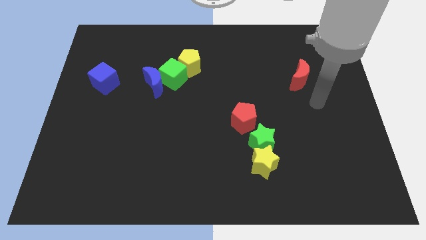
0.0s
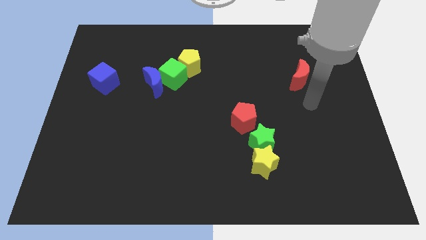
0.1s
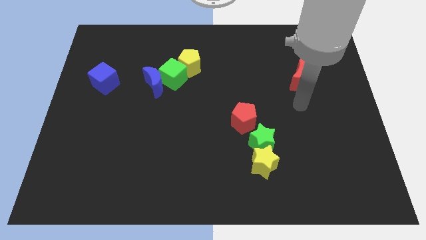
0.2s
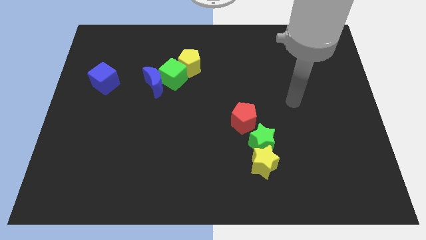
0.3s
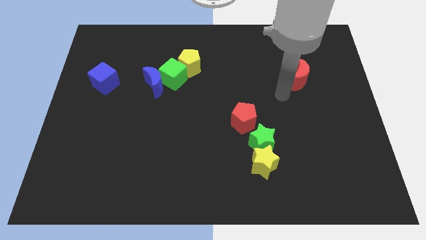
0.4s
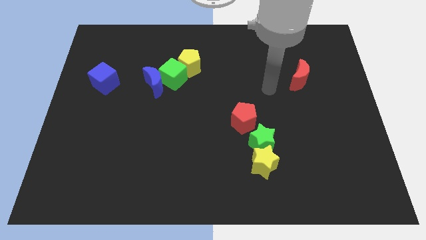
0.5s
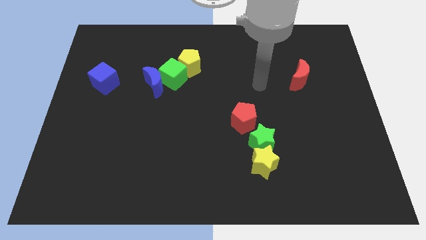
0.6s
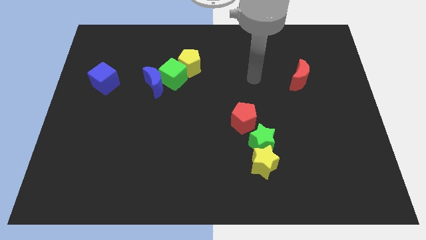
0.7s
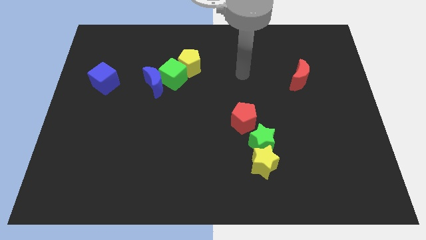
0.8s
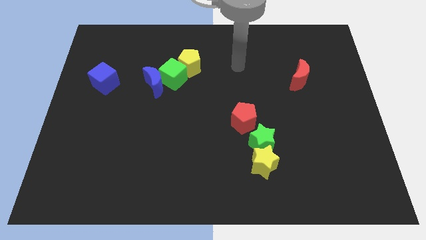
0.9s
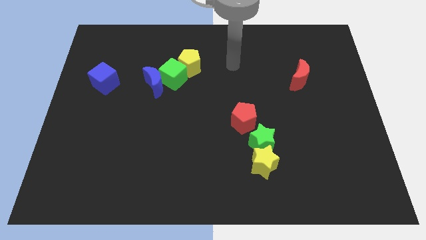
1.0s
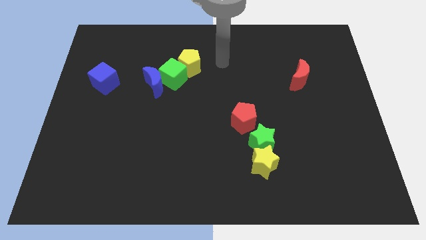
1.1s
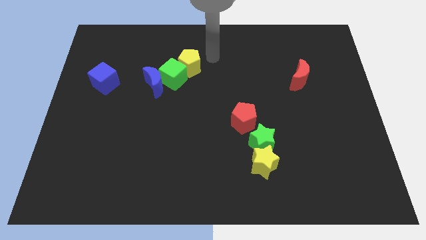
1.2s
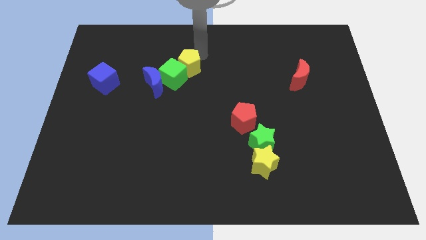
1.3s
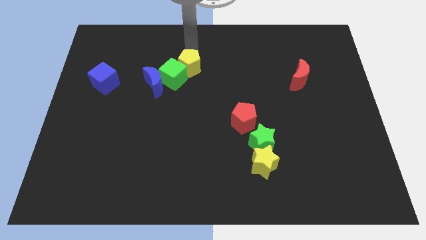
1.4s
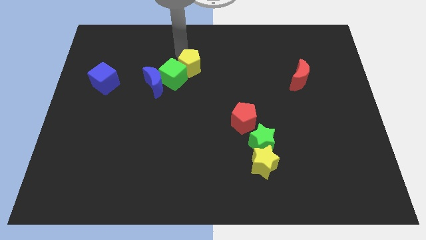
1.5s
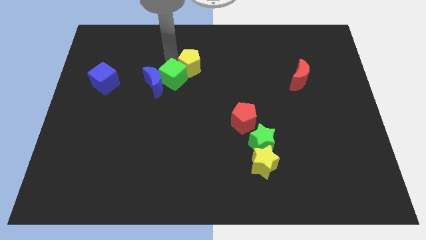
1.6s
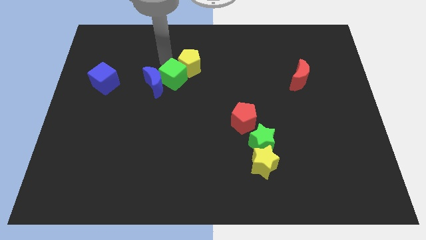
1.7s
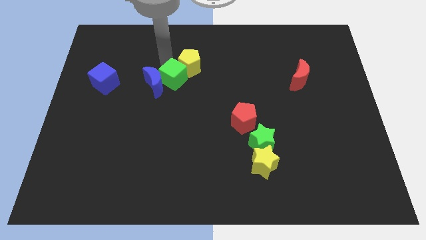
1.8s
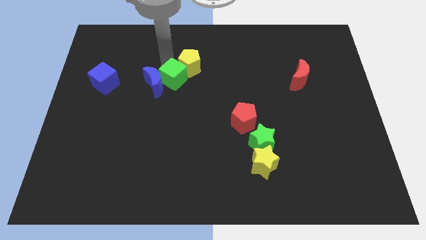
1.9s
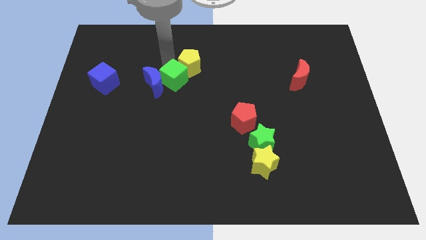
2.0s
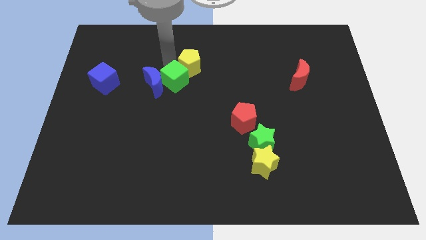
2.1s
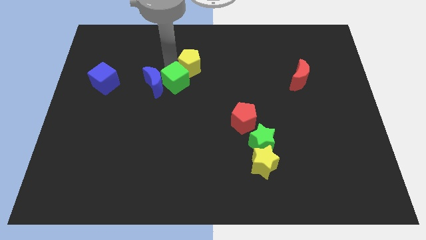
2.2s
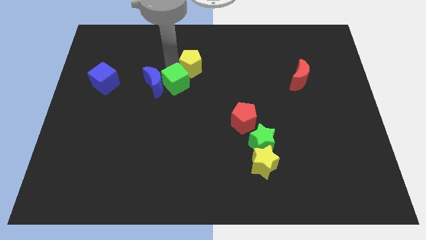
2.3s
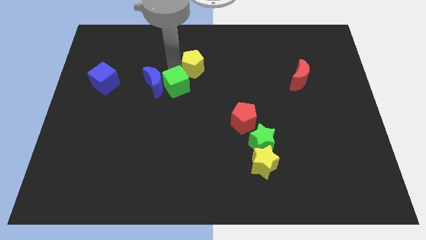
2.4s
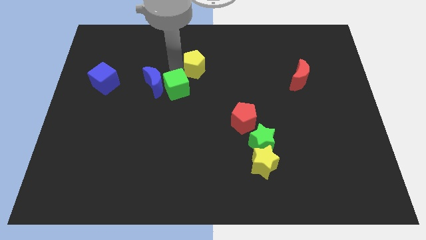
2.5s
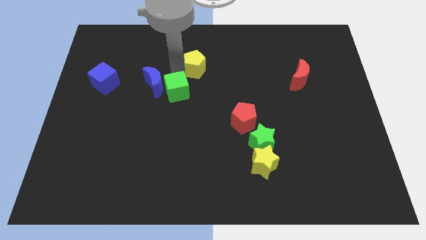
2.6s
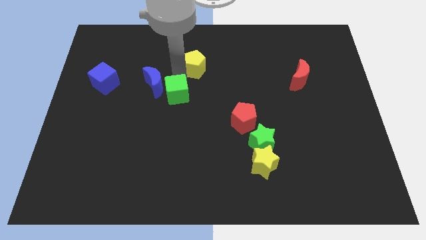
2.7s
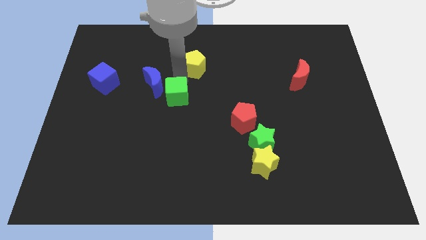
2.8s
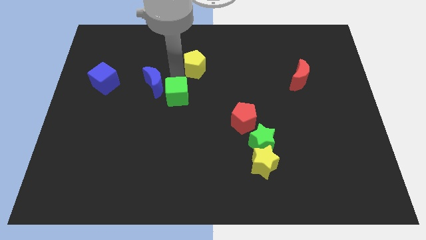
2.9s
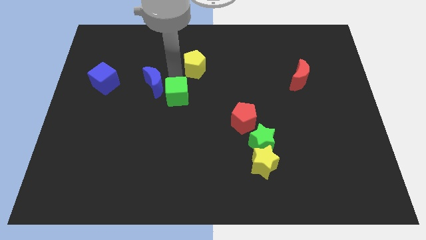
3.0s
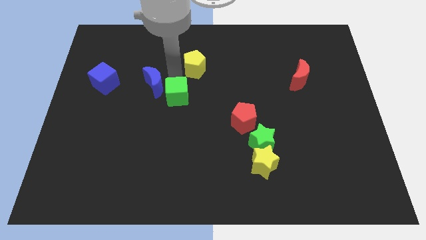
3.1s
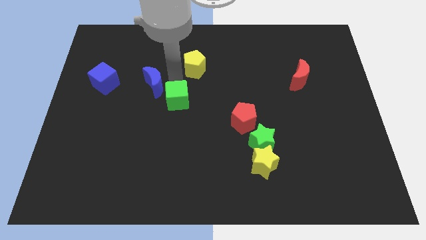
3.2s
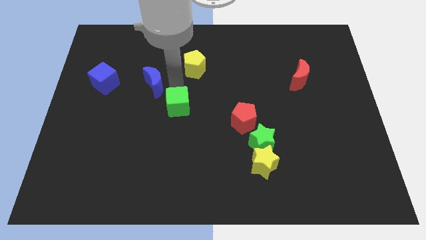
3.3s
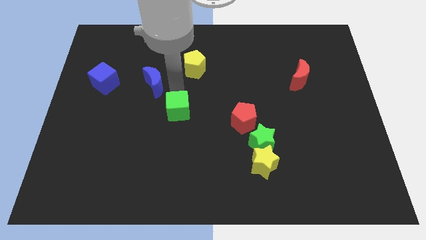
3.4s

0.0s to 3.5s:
pull the green cube apart from the blue moon and yellow pentagon

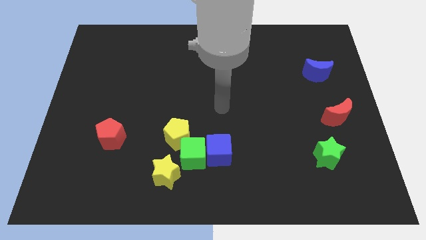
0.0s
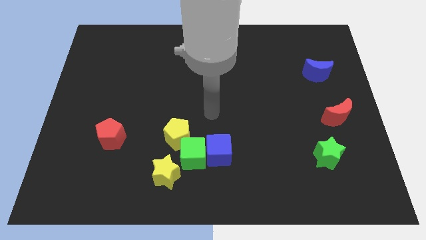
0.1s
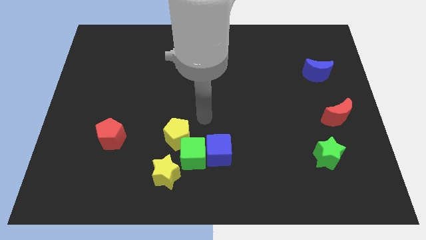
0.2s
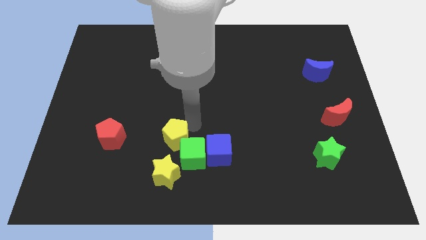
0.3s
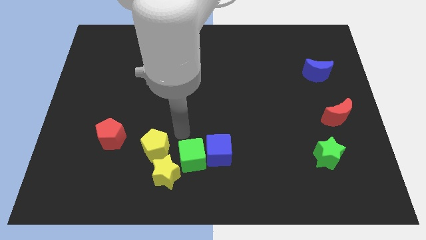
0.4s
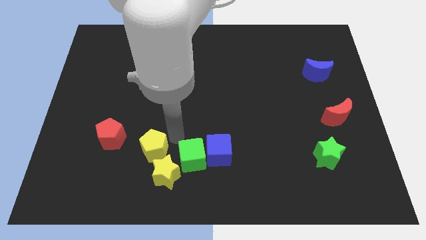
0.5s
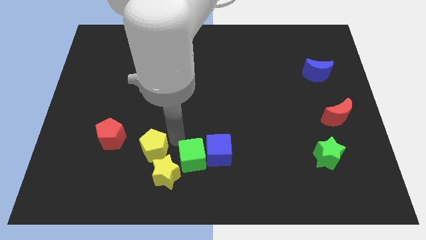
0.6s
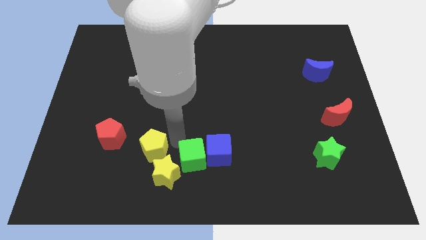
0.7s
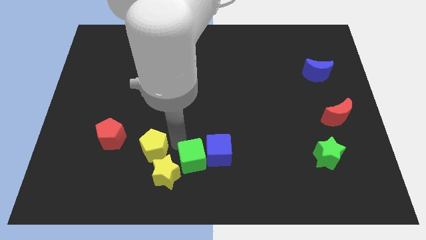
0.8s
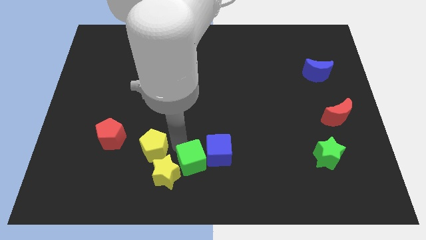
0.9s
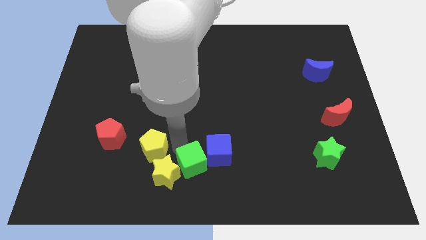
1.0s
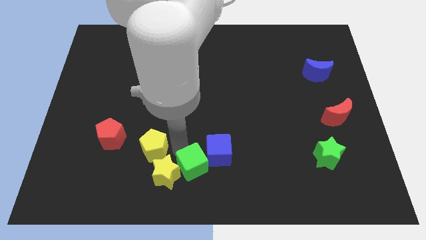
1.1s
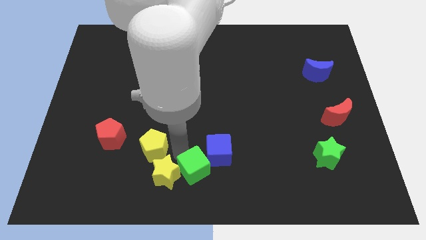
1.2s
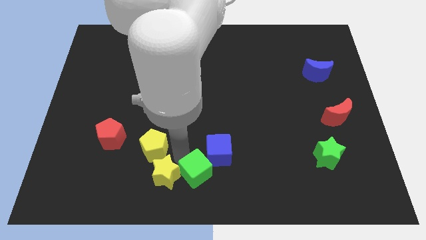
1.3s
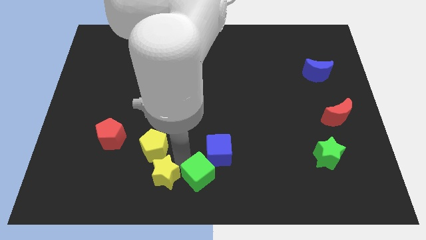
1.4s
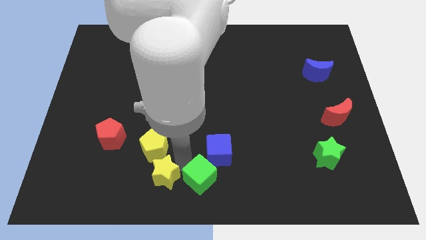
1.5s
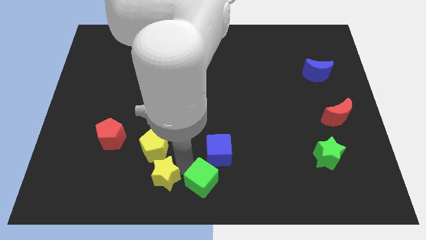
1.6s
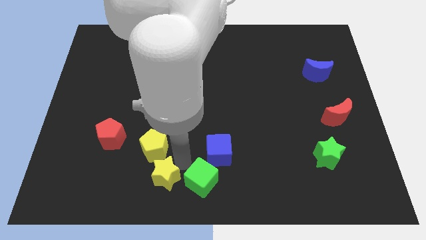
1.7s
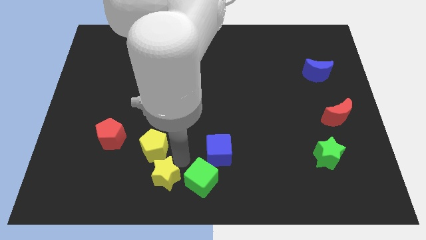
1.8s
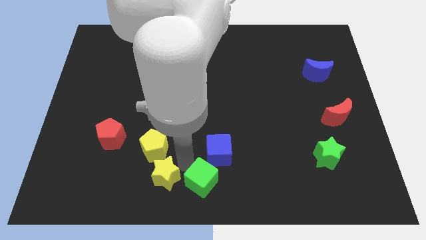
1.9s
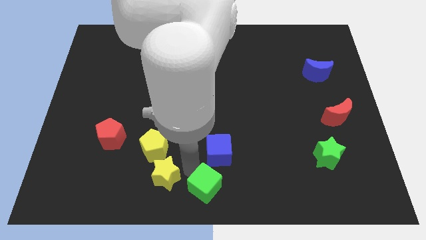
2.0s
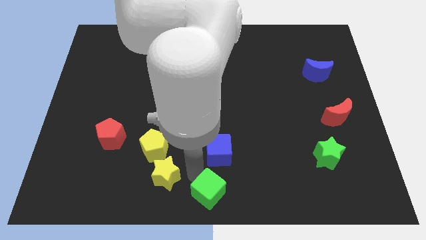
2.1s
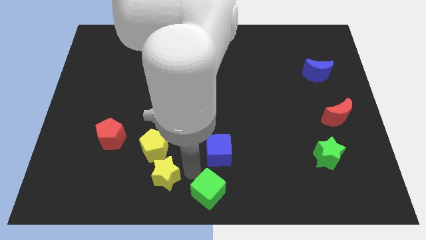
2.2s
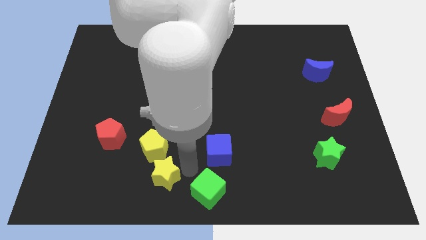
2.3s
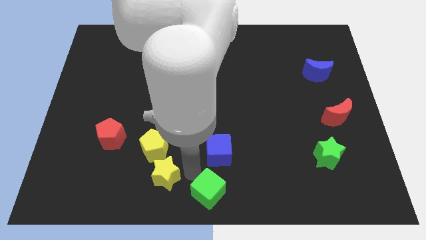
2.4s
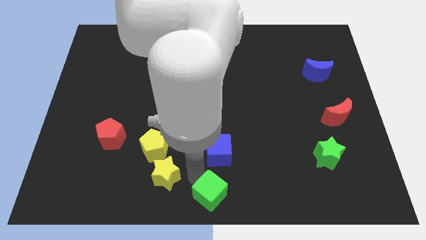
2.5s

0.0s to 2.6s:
pull the green cube apart from the blue cube, yellow pentagon, and yellow star

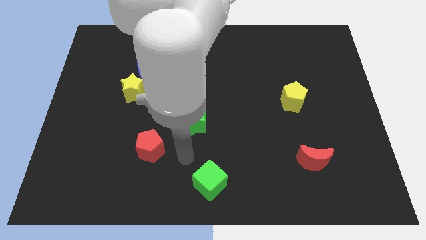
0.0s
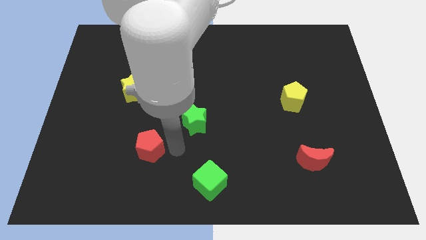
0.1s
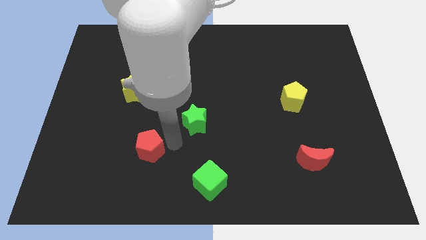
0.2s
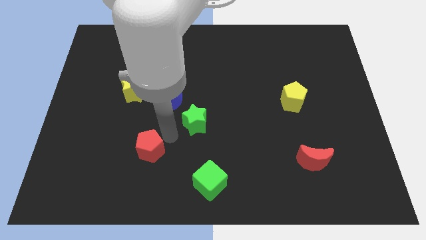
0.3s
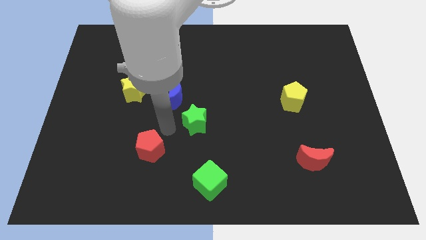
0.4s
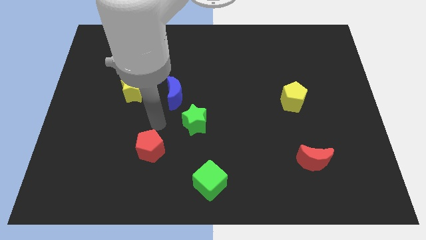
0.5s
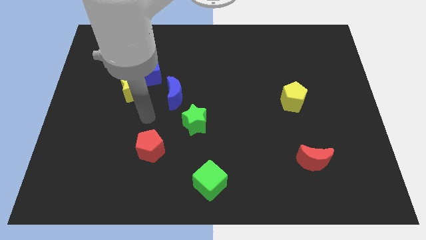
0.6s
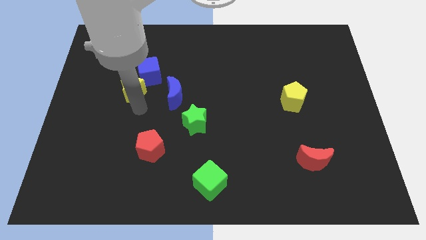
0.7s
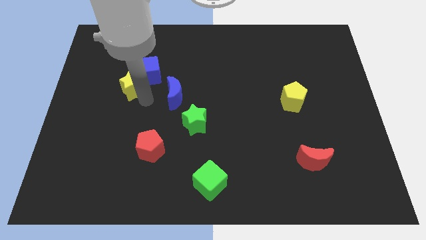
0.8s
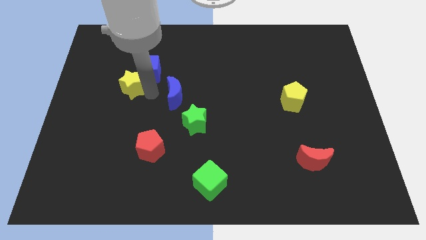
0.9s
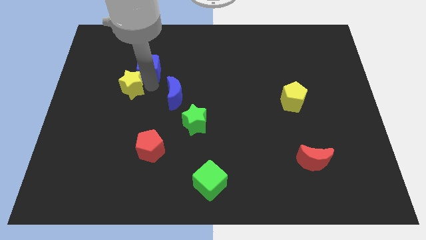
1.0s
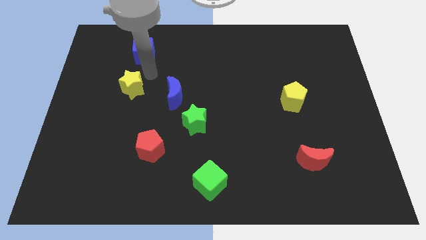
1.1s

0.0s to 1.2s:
separate the yellow star from the blue cube

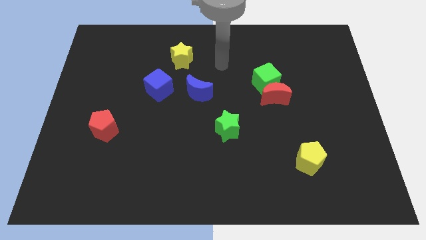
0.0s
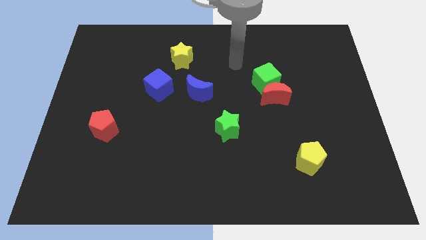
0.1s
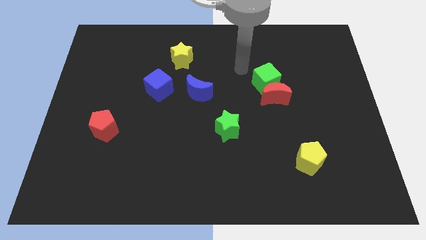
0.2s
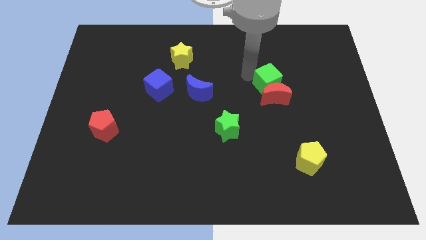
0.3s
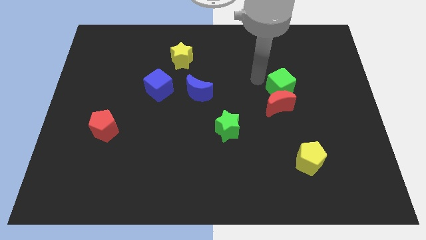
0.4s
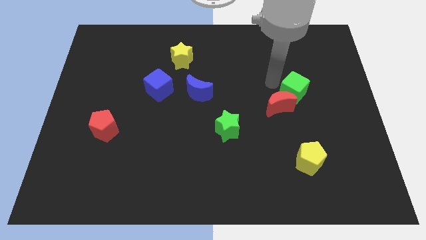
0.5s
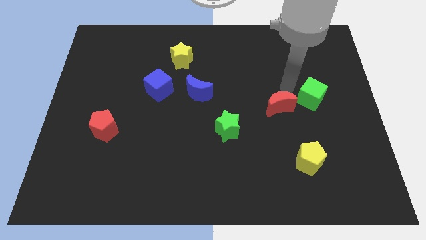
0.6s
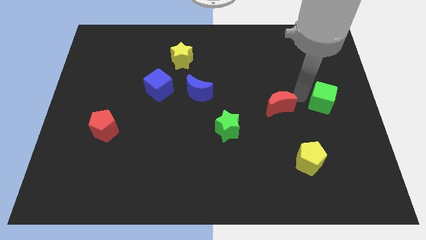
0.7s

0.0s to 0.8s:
pull the red moon apart from the green cube

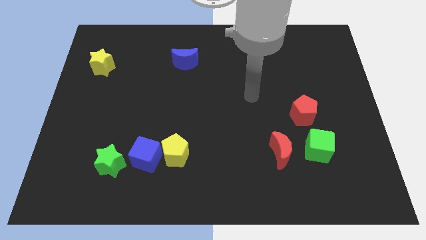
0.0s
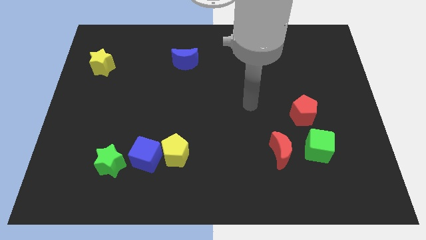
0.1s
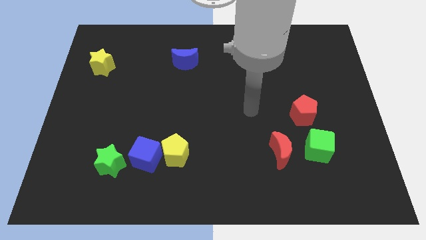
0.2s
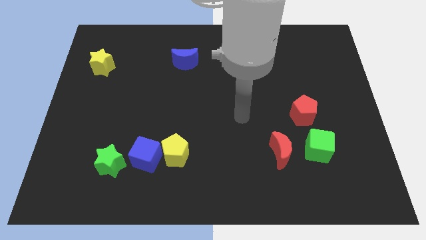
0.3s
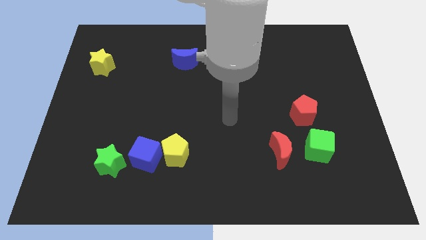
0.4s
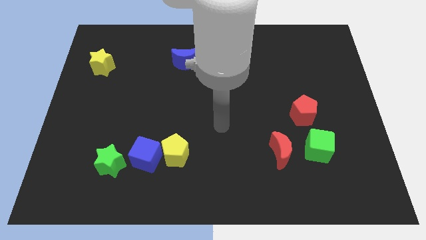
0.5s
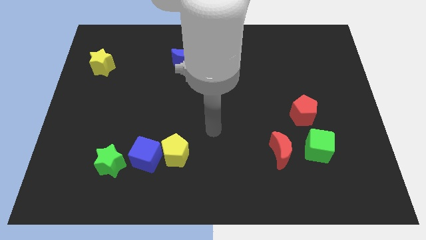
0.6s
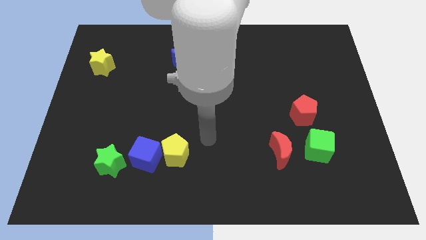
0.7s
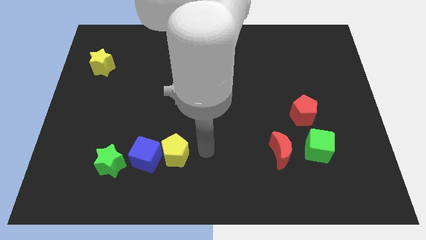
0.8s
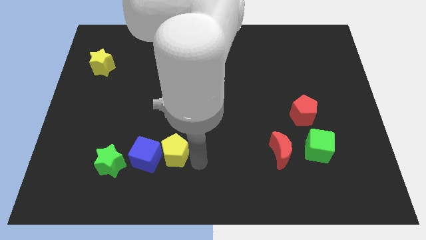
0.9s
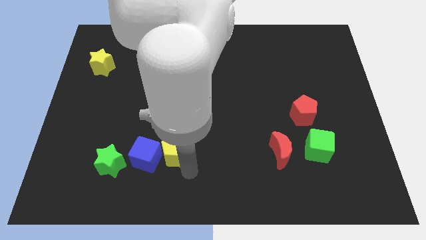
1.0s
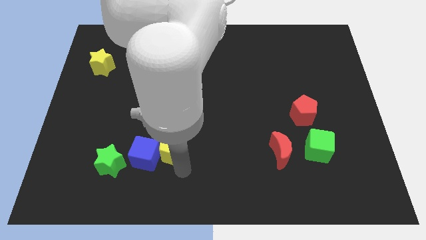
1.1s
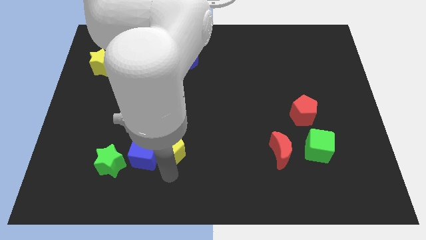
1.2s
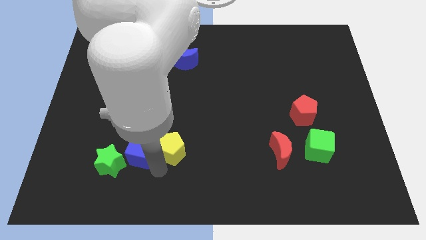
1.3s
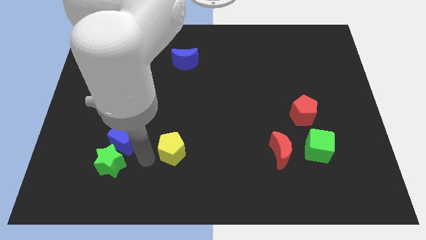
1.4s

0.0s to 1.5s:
move the yellow pentagon away from the blue cube
